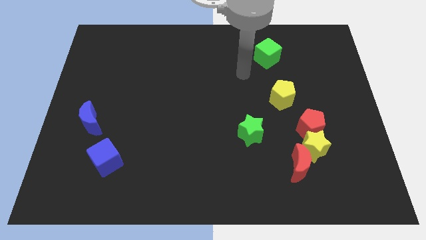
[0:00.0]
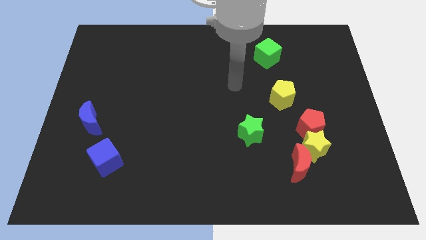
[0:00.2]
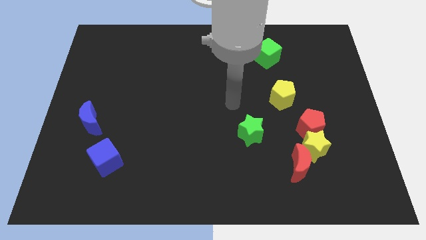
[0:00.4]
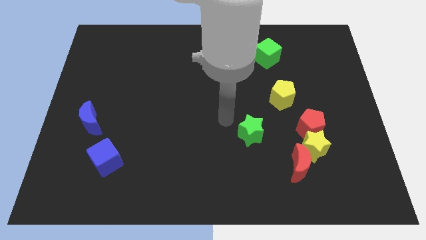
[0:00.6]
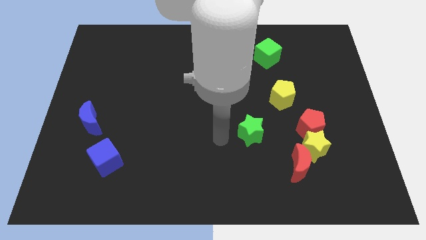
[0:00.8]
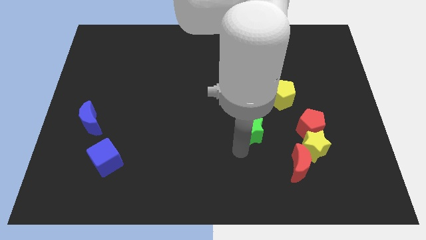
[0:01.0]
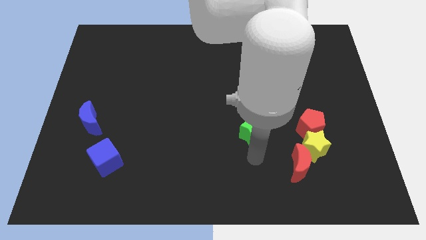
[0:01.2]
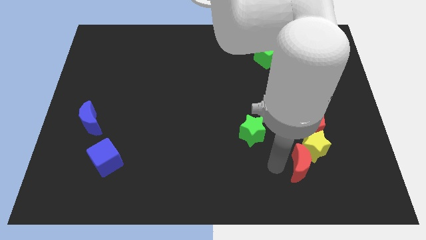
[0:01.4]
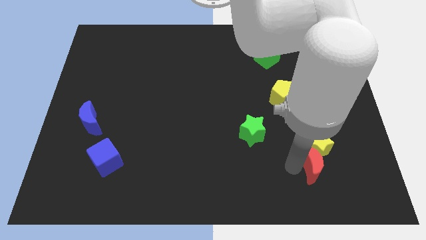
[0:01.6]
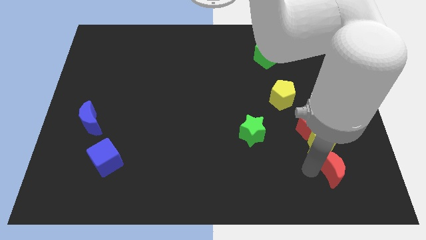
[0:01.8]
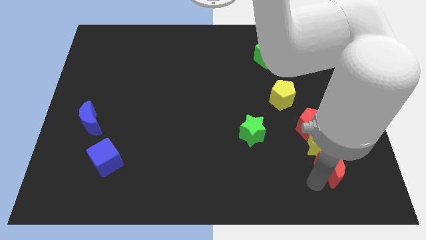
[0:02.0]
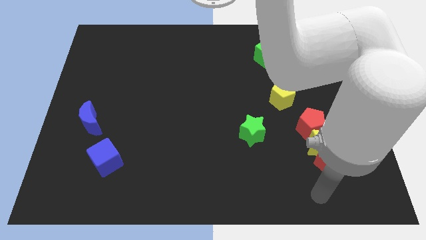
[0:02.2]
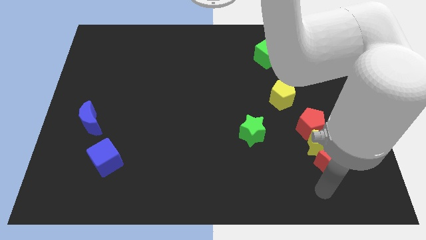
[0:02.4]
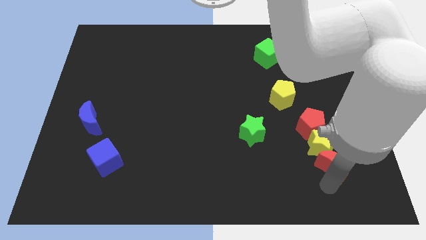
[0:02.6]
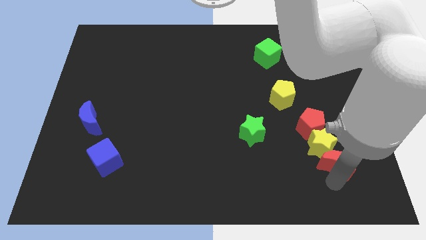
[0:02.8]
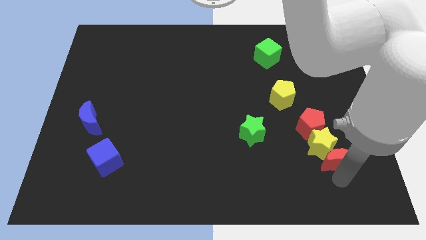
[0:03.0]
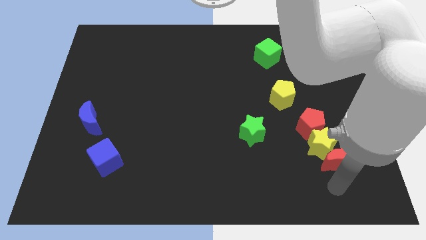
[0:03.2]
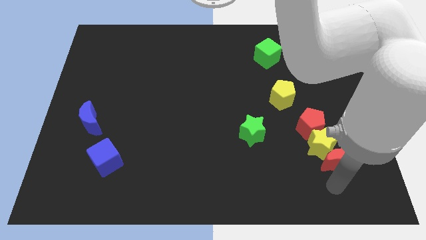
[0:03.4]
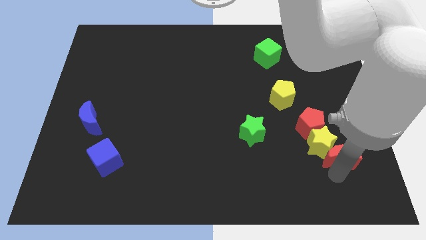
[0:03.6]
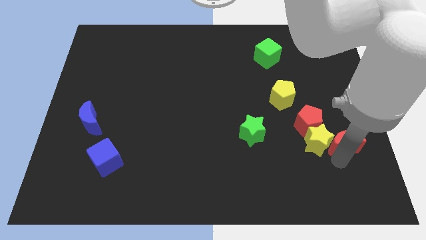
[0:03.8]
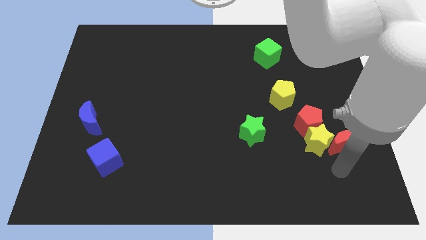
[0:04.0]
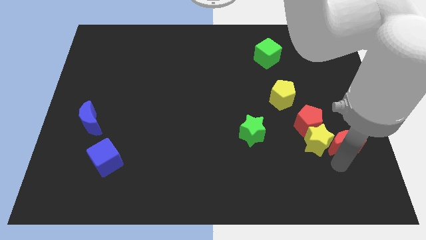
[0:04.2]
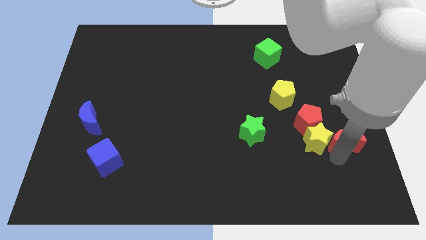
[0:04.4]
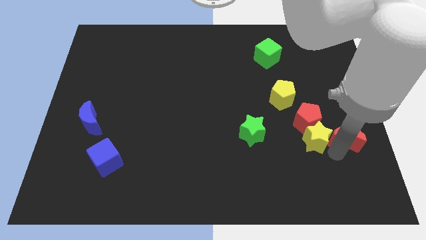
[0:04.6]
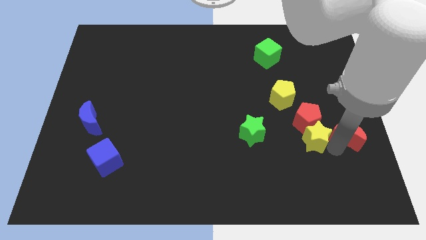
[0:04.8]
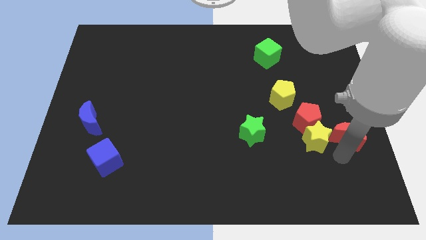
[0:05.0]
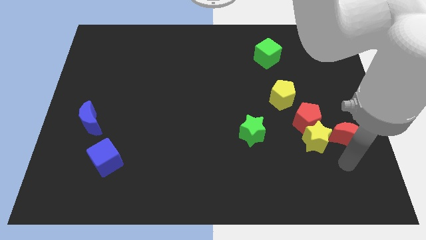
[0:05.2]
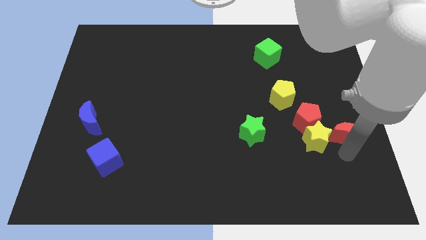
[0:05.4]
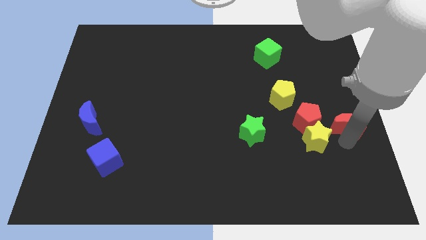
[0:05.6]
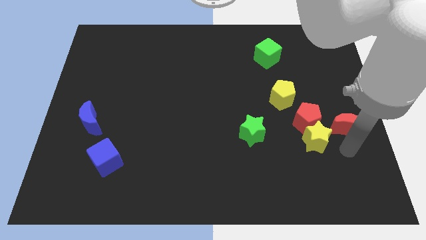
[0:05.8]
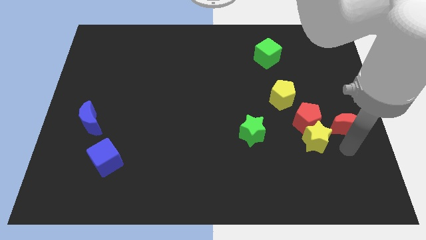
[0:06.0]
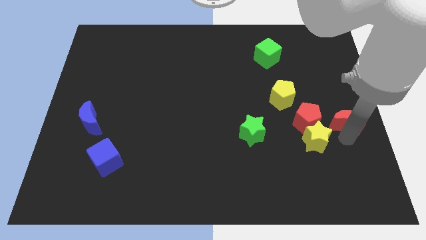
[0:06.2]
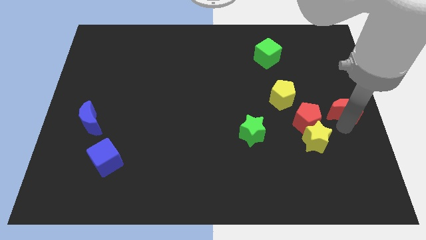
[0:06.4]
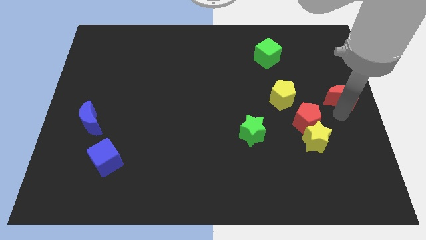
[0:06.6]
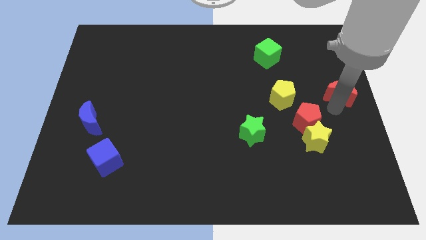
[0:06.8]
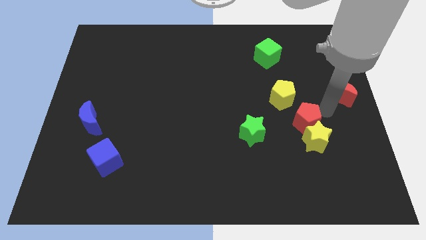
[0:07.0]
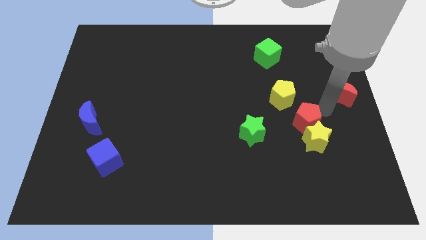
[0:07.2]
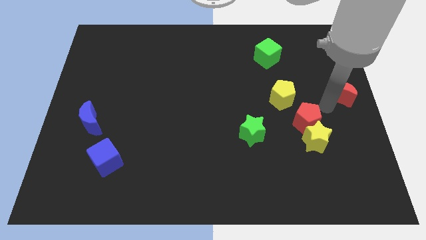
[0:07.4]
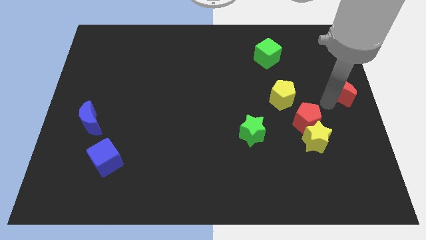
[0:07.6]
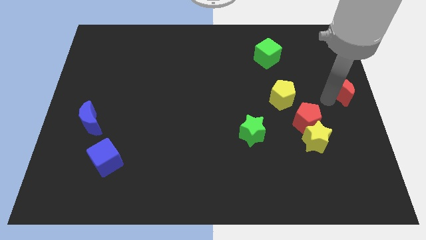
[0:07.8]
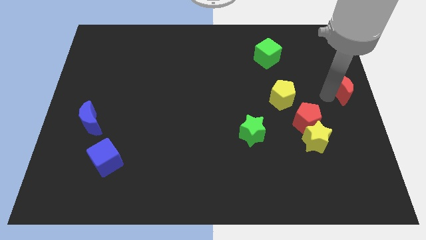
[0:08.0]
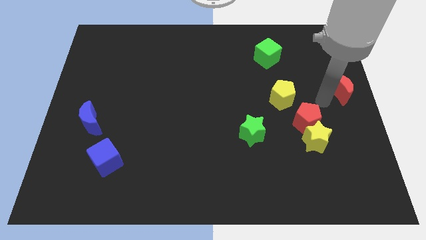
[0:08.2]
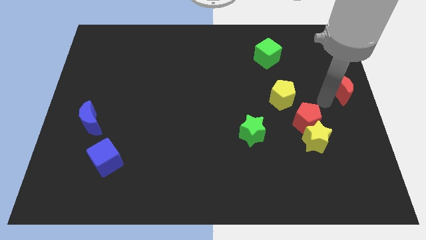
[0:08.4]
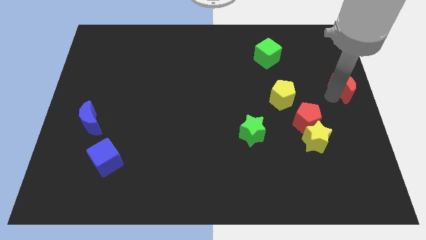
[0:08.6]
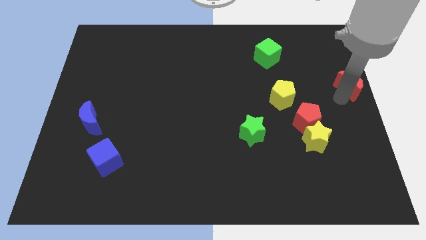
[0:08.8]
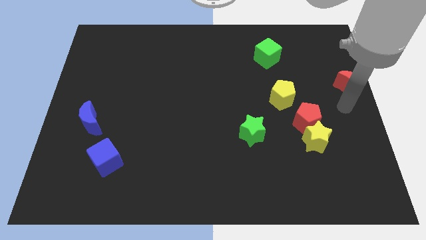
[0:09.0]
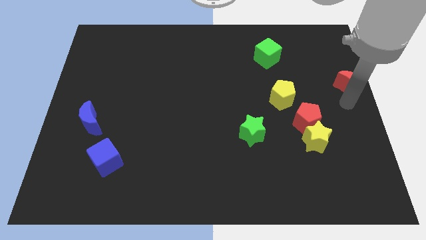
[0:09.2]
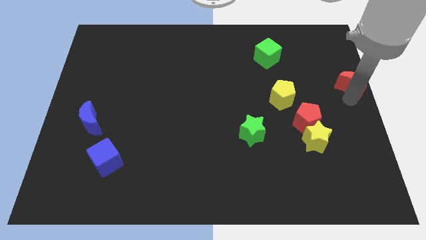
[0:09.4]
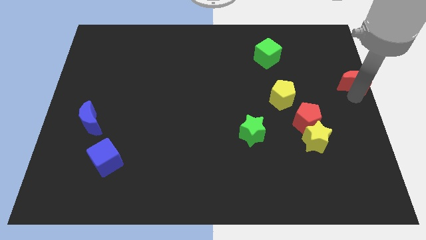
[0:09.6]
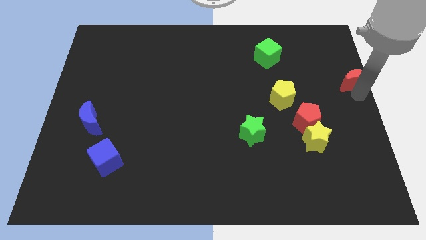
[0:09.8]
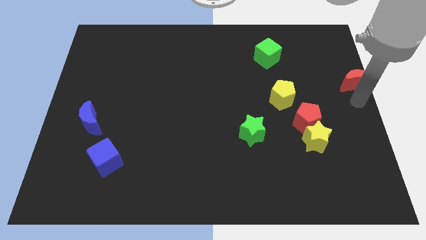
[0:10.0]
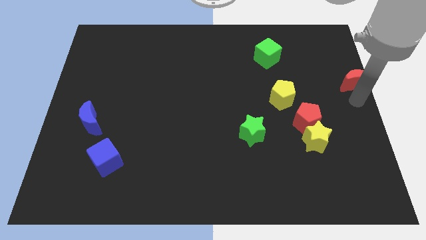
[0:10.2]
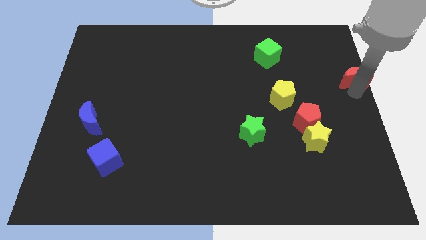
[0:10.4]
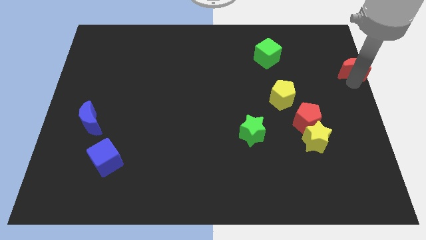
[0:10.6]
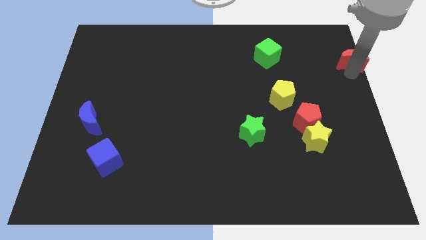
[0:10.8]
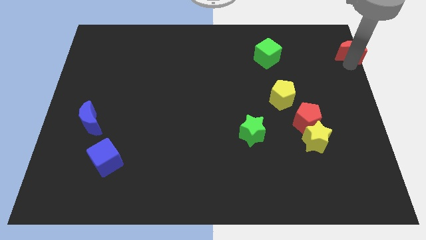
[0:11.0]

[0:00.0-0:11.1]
put the red moon to the top right
